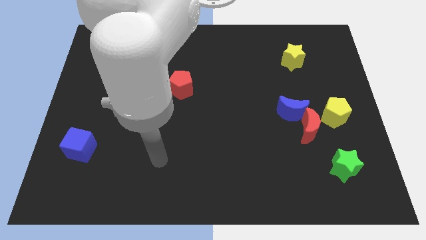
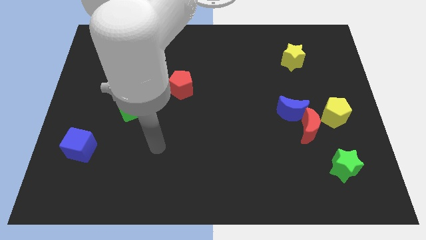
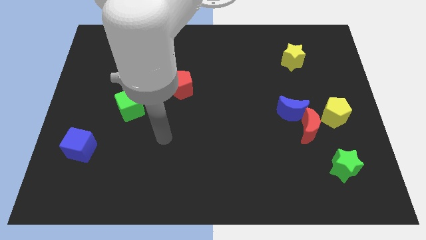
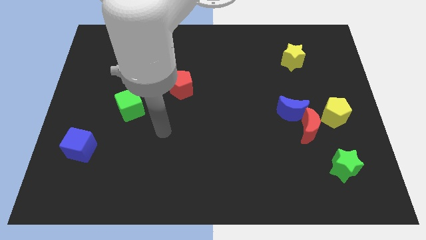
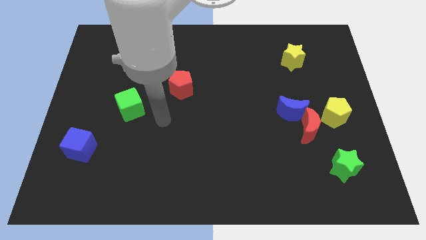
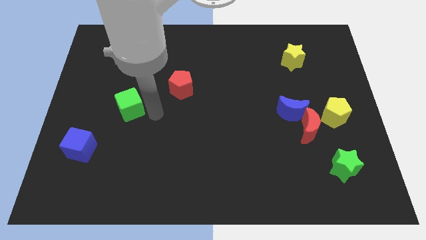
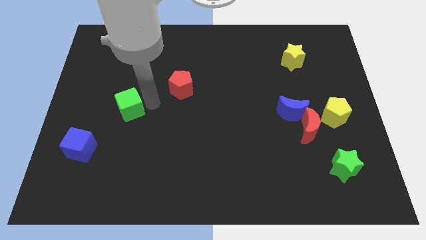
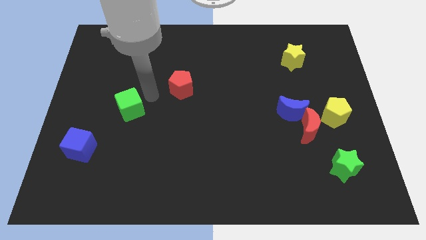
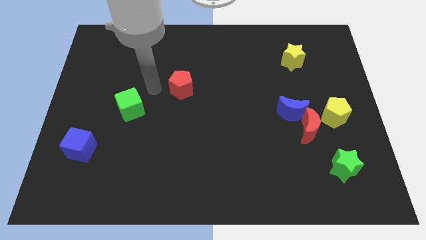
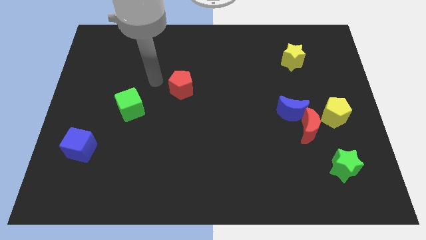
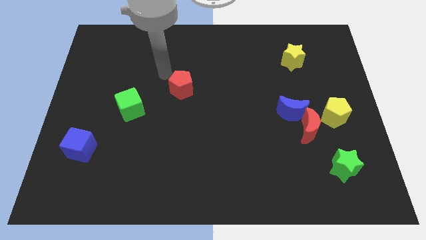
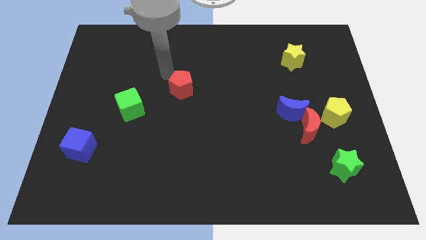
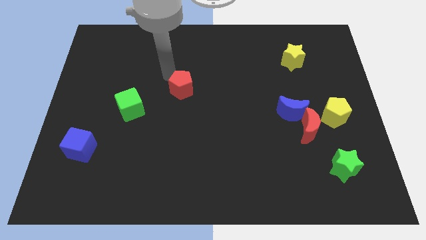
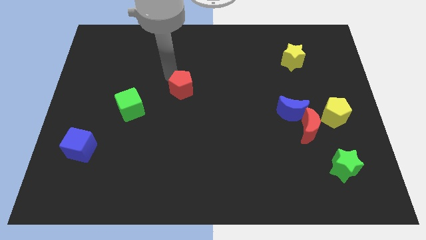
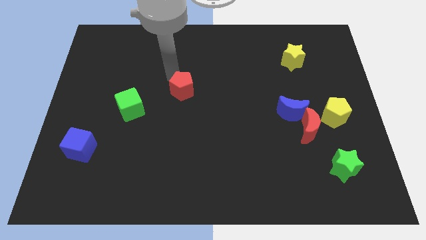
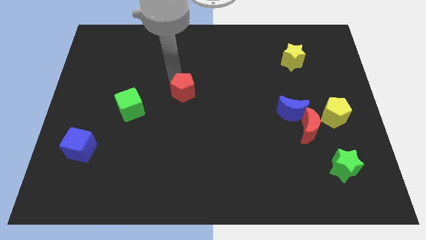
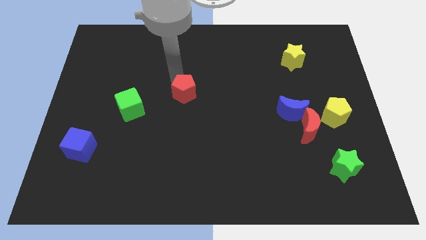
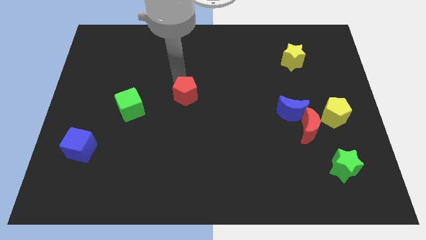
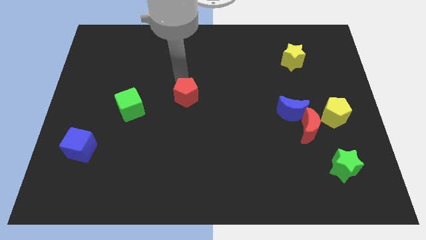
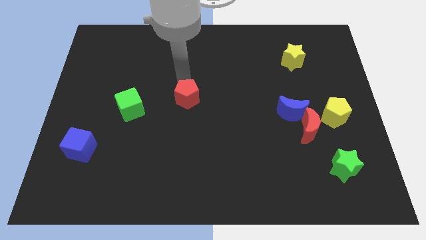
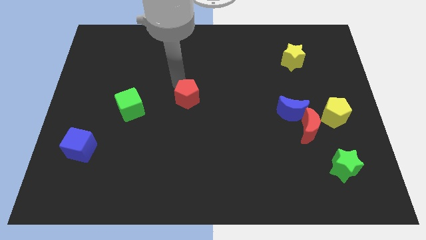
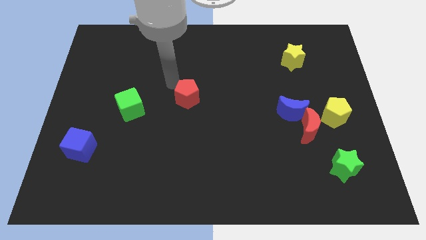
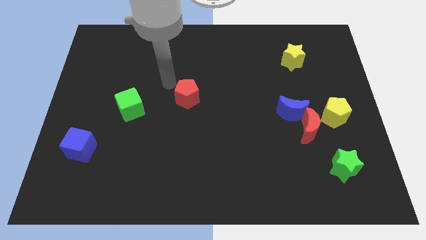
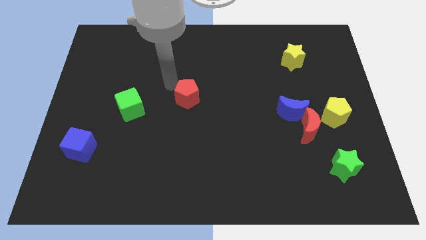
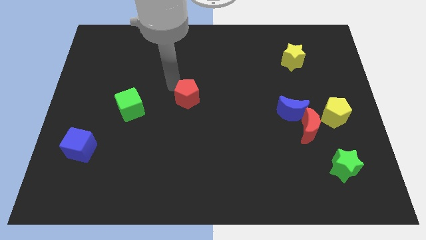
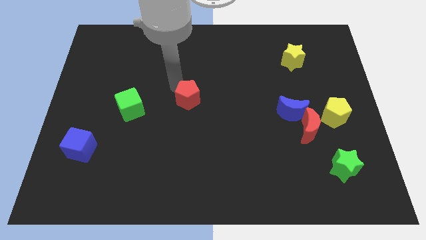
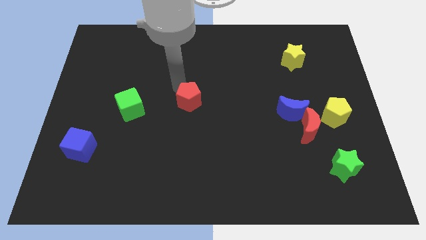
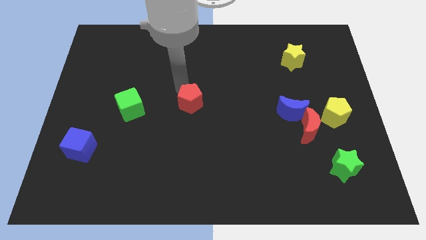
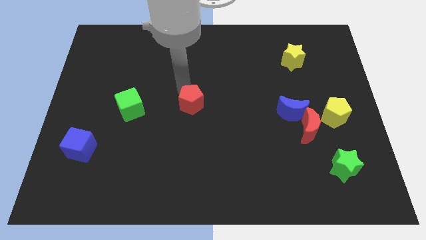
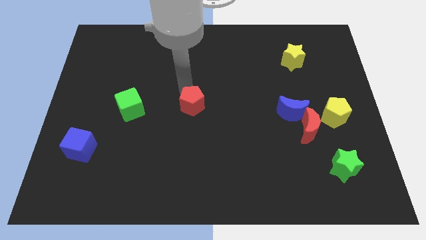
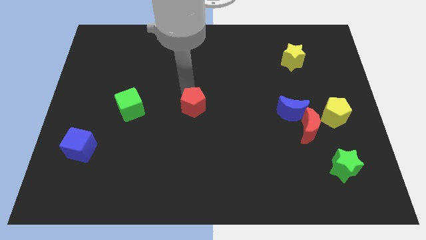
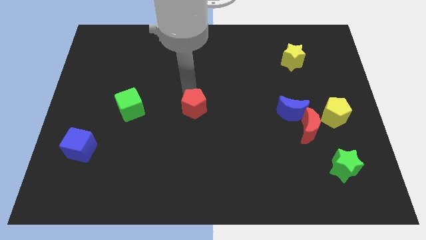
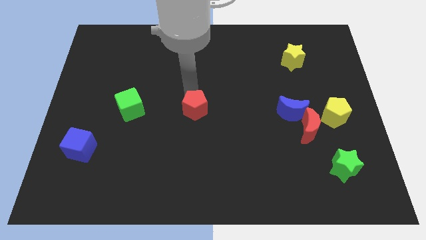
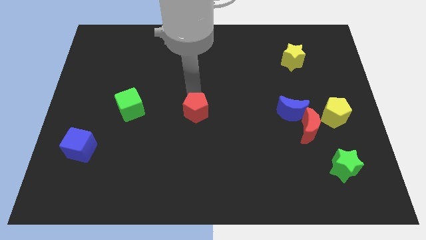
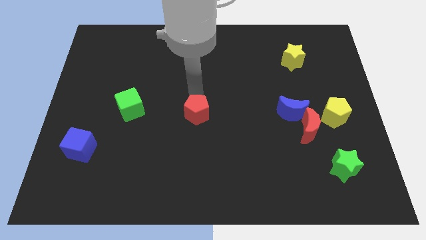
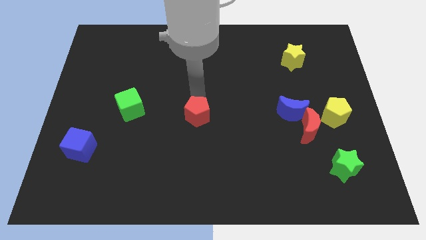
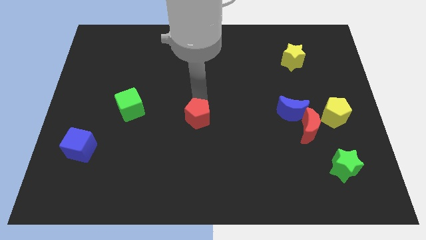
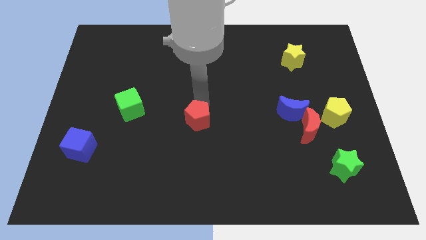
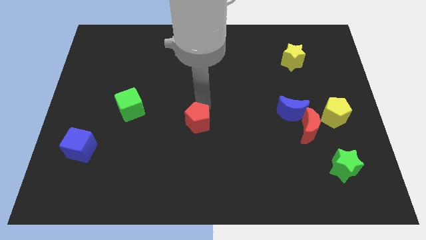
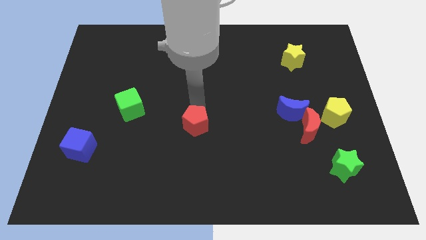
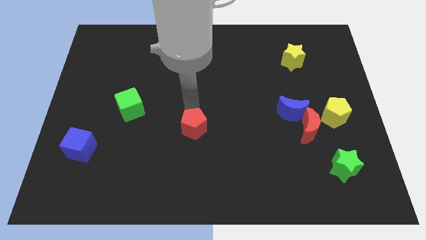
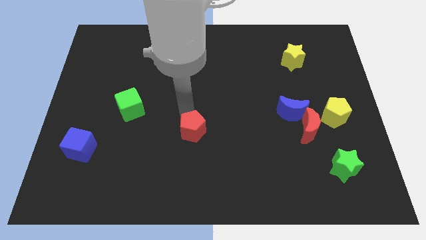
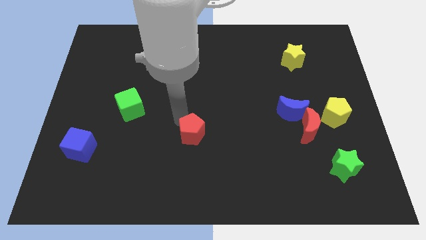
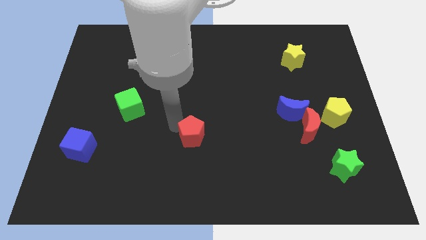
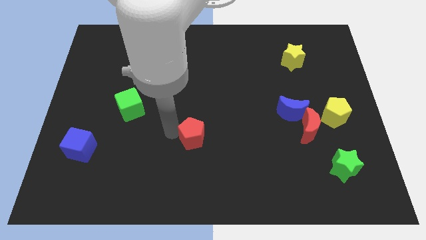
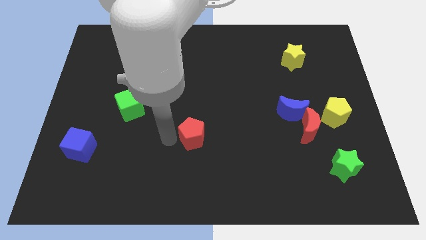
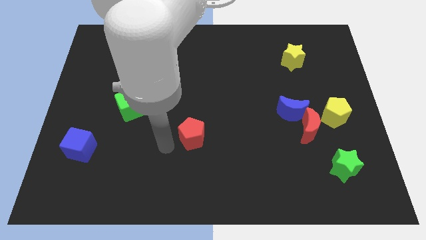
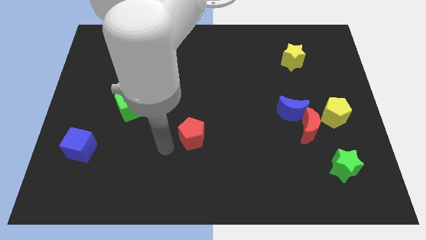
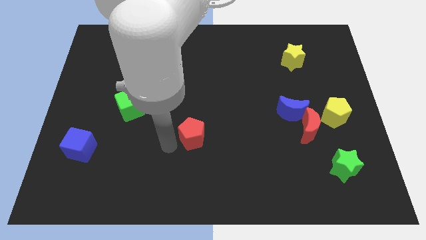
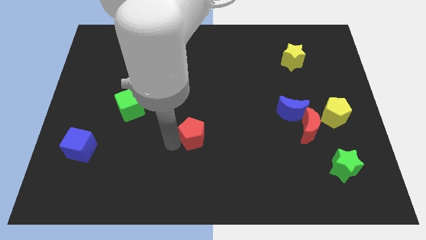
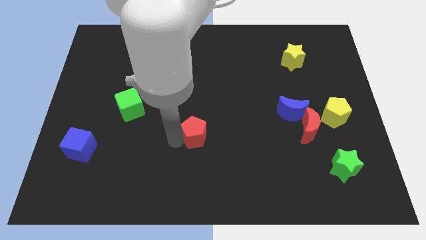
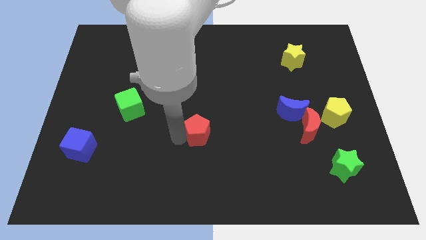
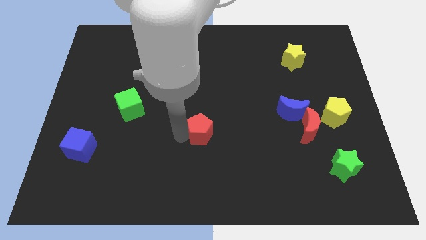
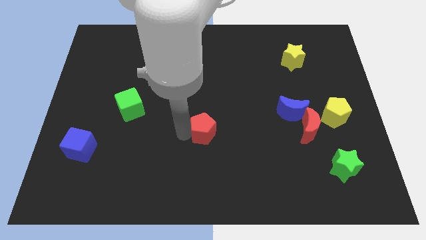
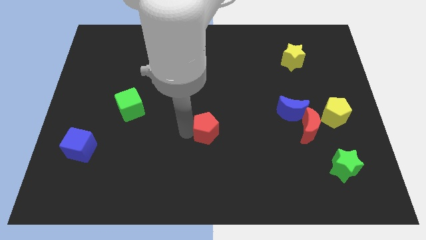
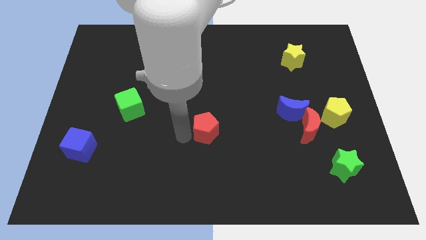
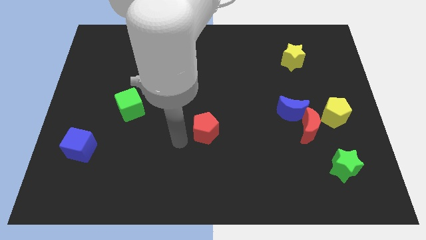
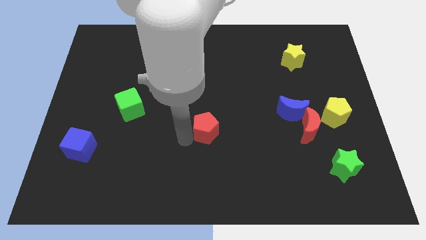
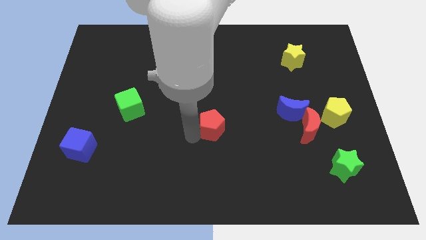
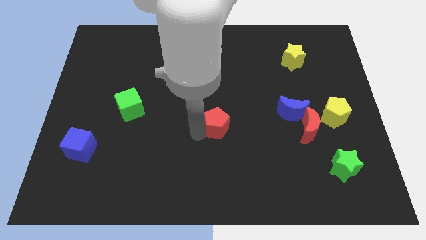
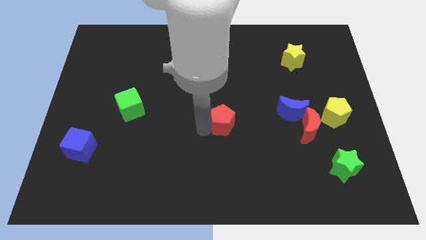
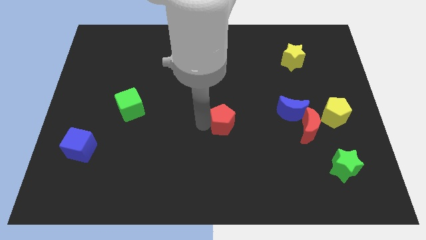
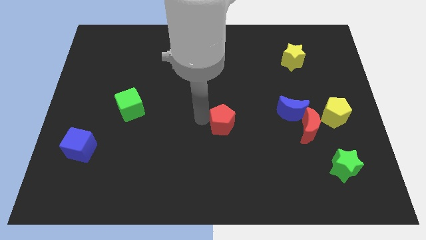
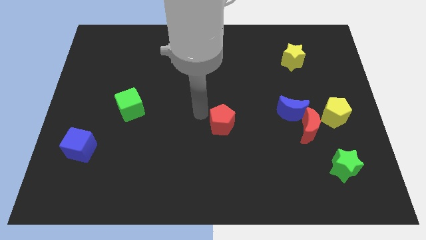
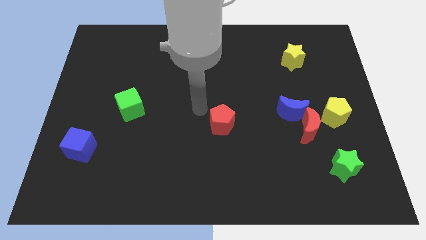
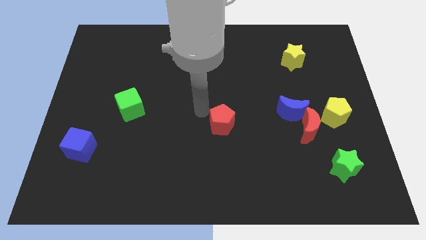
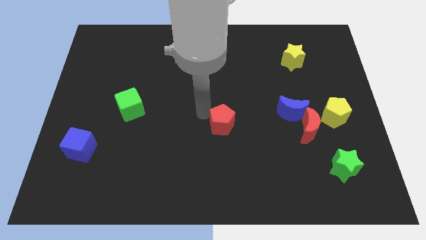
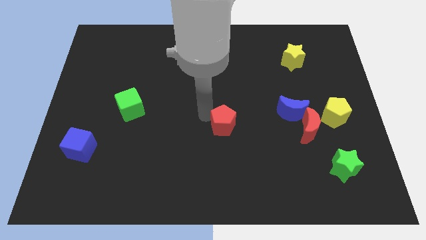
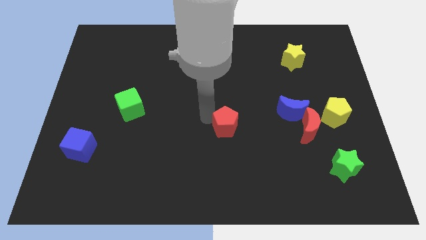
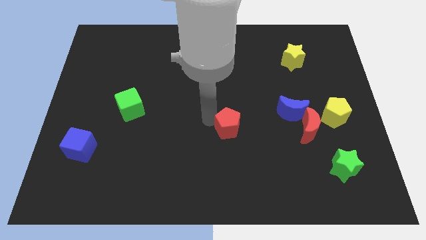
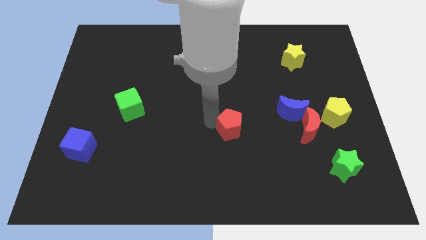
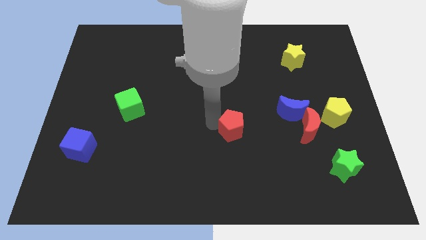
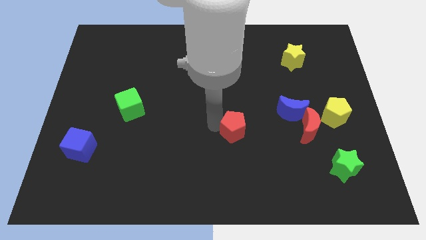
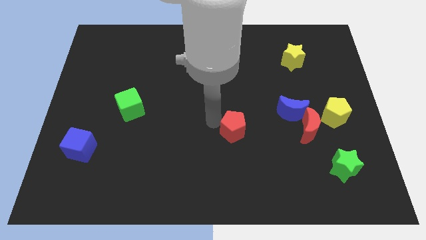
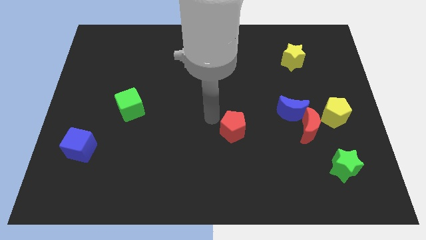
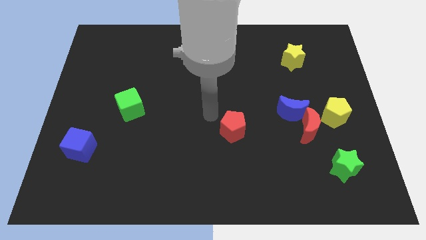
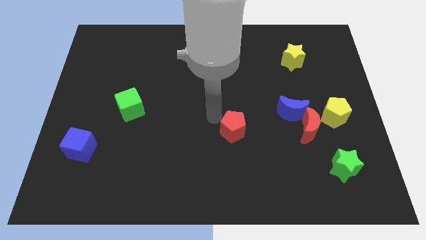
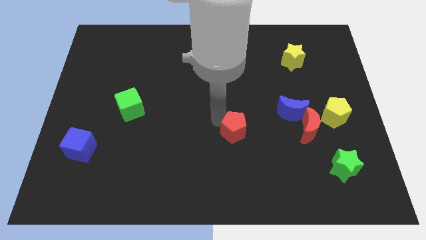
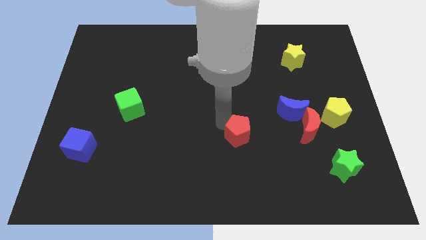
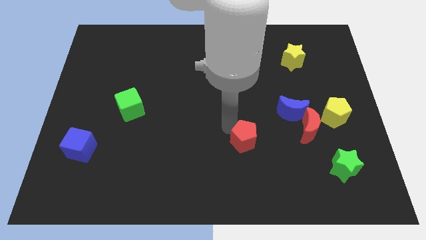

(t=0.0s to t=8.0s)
move the red pentagon downwards and to the right
